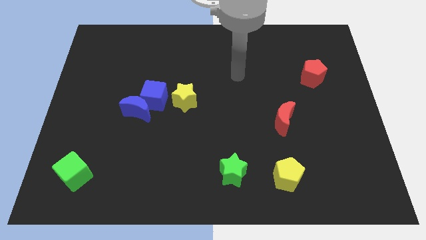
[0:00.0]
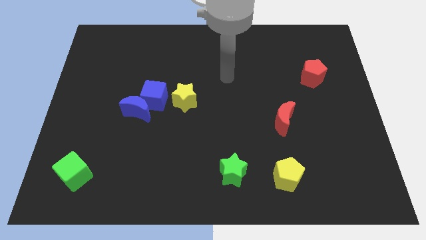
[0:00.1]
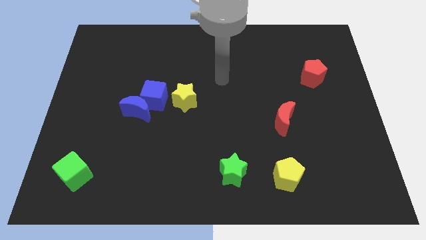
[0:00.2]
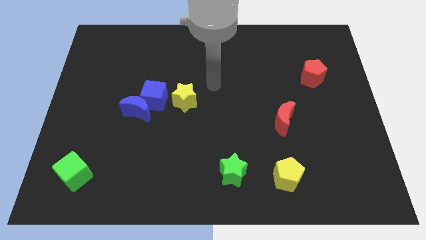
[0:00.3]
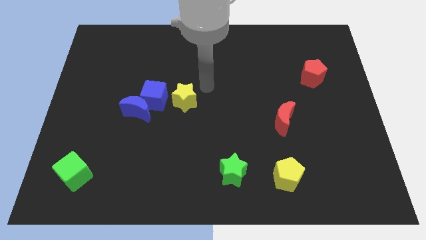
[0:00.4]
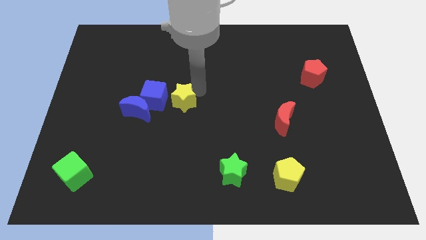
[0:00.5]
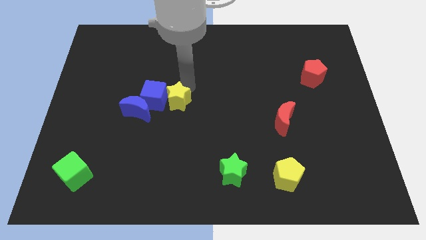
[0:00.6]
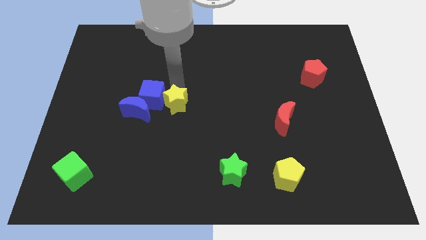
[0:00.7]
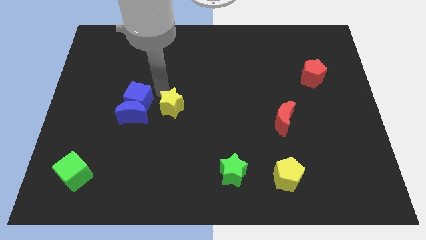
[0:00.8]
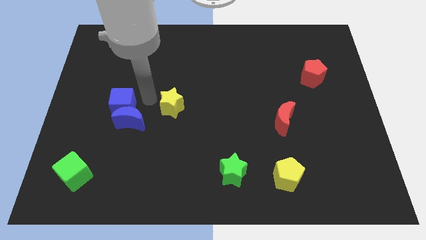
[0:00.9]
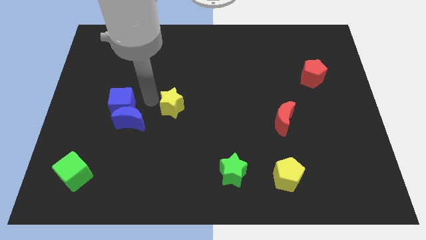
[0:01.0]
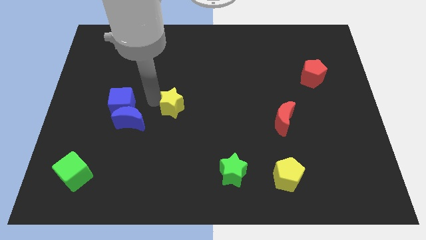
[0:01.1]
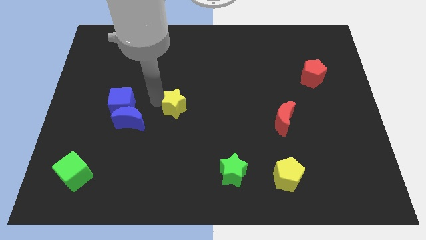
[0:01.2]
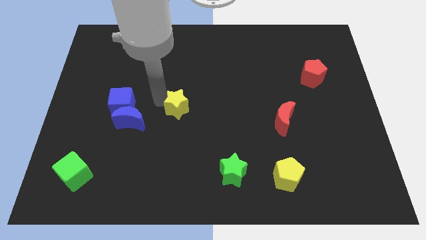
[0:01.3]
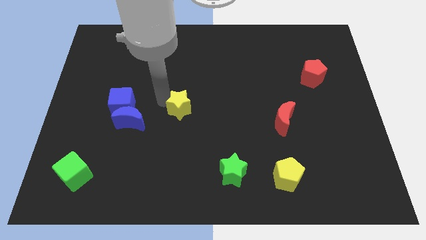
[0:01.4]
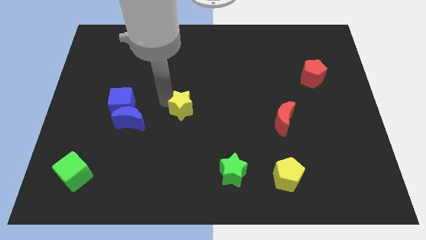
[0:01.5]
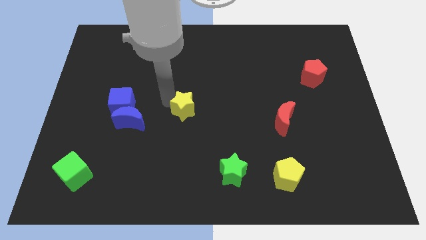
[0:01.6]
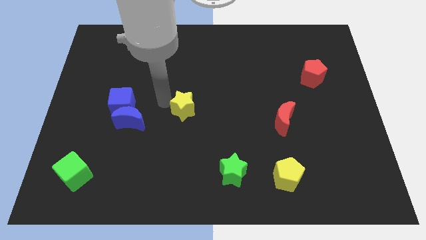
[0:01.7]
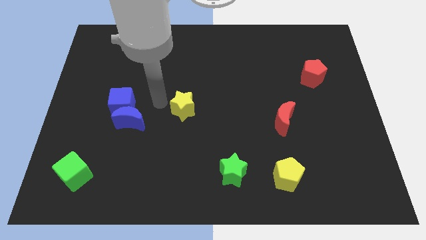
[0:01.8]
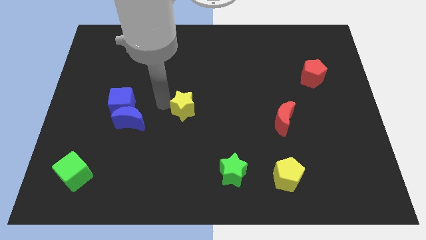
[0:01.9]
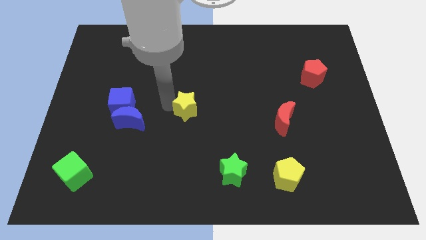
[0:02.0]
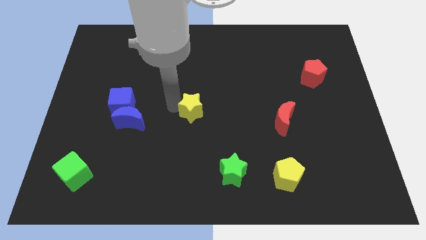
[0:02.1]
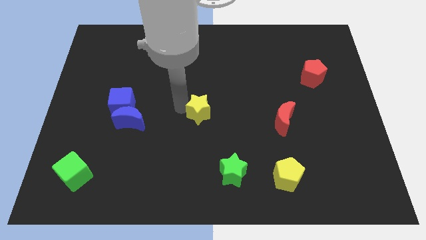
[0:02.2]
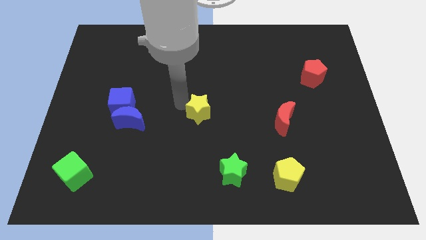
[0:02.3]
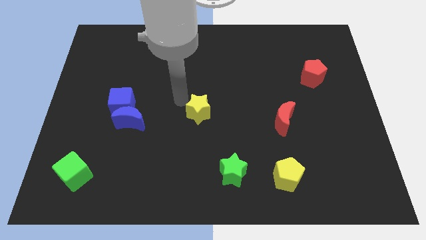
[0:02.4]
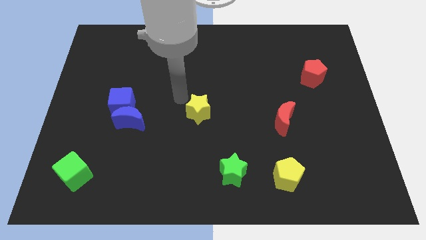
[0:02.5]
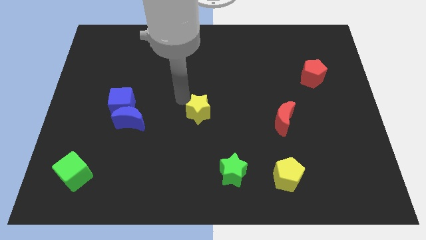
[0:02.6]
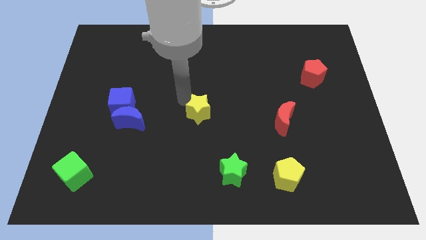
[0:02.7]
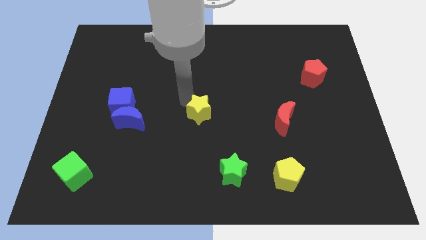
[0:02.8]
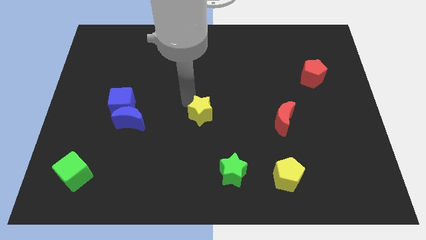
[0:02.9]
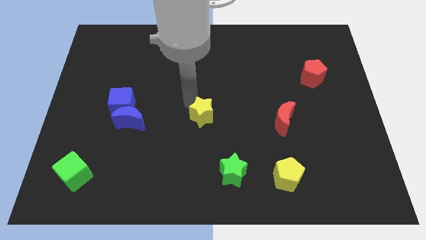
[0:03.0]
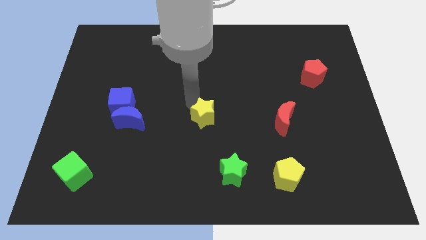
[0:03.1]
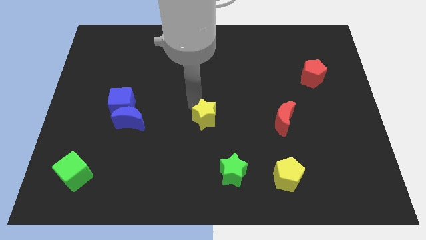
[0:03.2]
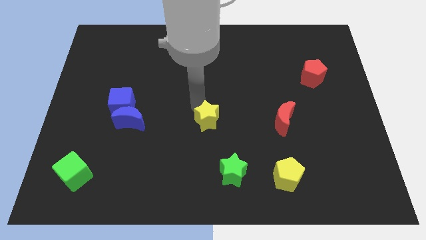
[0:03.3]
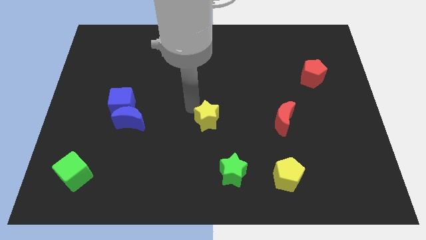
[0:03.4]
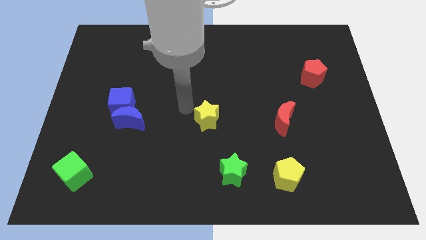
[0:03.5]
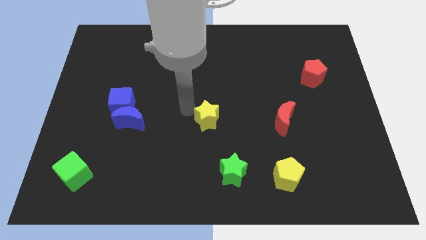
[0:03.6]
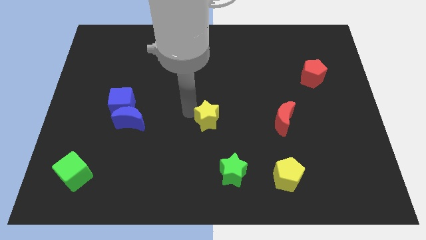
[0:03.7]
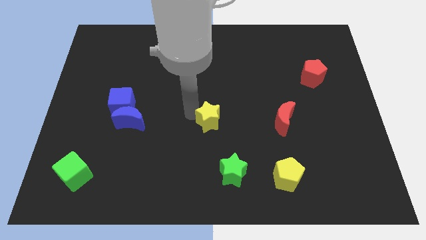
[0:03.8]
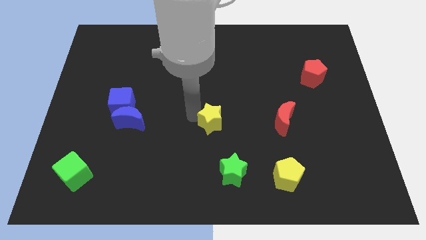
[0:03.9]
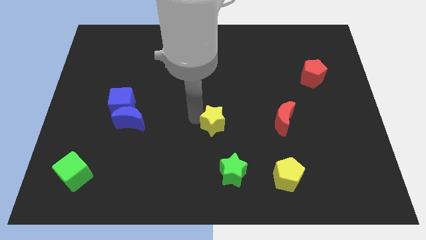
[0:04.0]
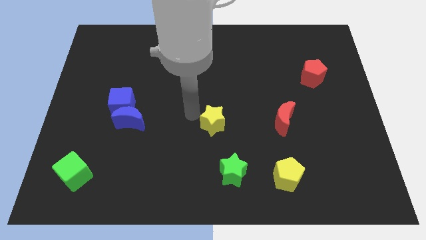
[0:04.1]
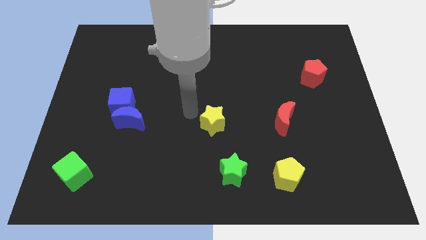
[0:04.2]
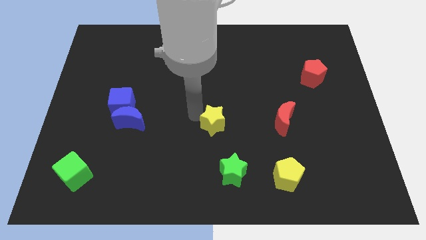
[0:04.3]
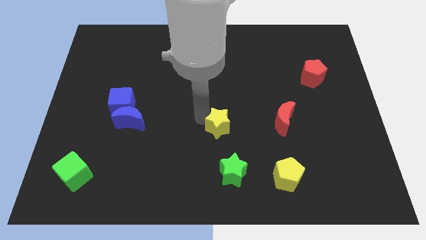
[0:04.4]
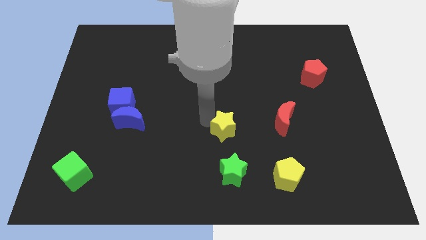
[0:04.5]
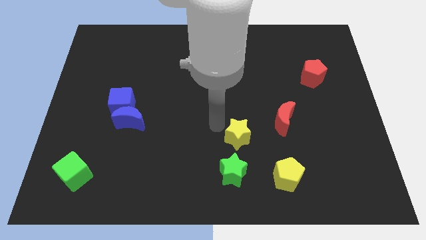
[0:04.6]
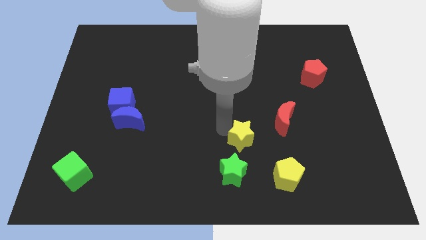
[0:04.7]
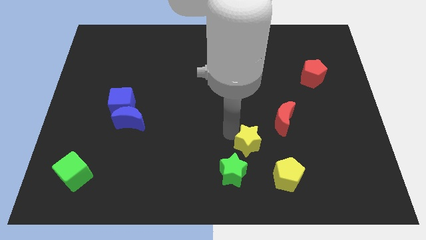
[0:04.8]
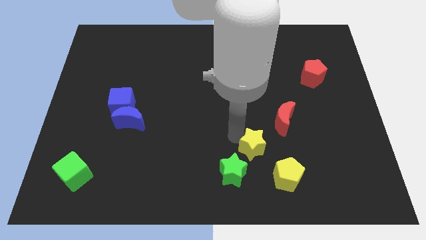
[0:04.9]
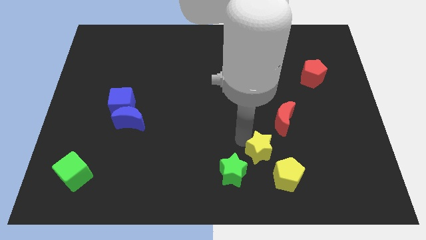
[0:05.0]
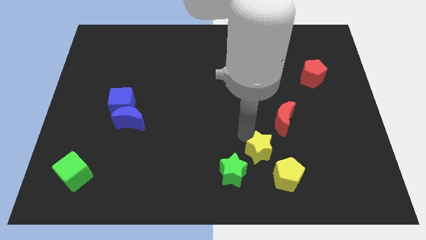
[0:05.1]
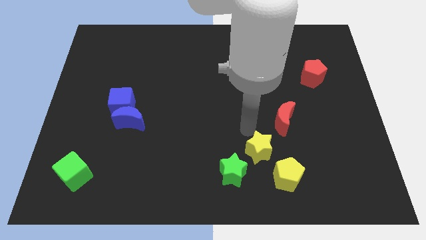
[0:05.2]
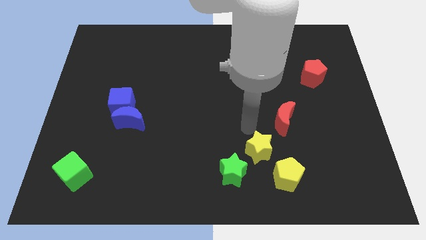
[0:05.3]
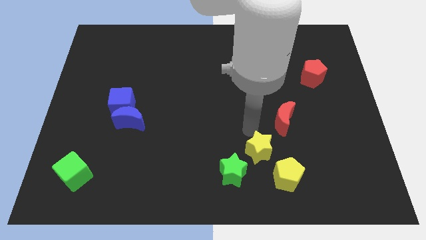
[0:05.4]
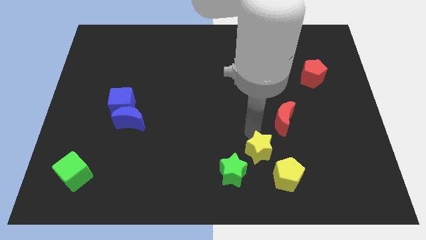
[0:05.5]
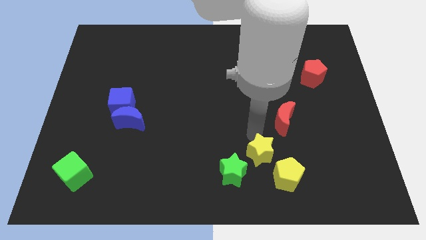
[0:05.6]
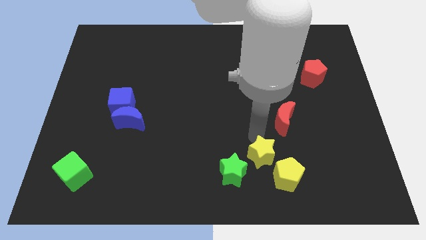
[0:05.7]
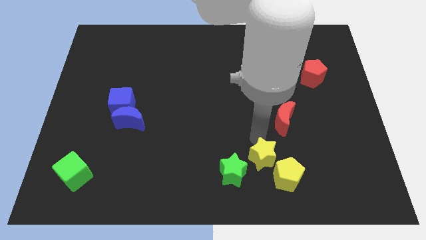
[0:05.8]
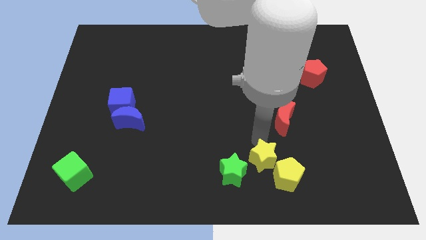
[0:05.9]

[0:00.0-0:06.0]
slide the yellow star close to the yellow pentagon

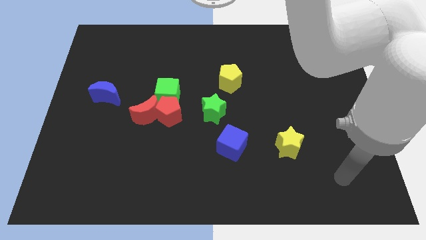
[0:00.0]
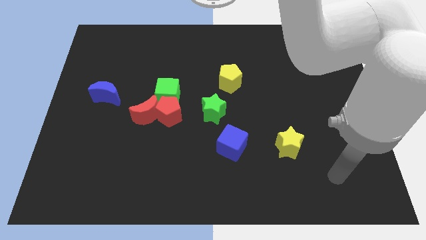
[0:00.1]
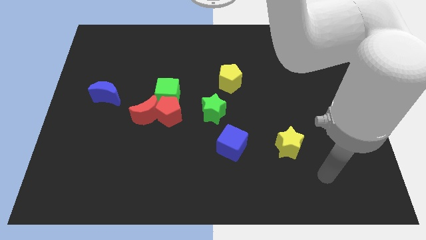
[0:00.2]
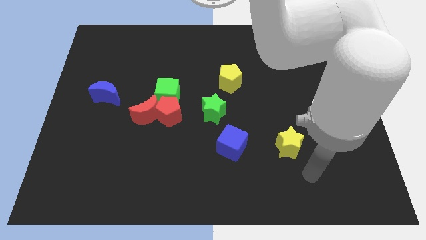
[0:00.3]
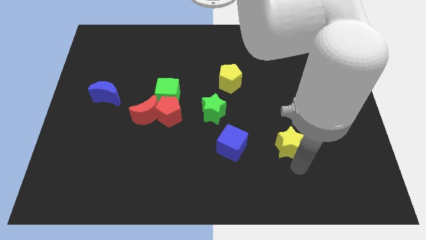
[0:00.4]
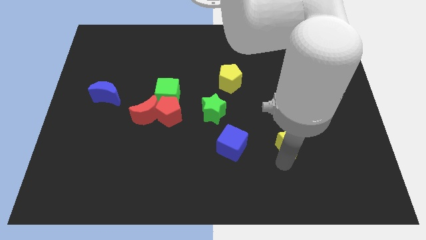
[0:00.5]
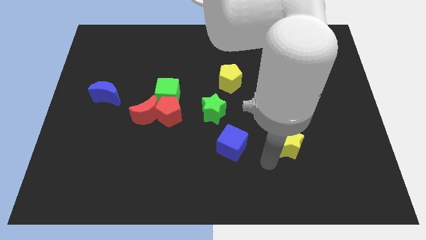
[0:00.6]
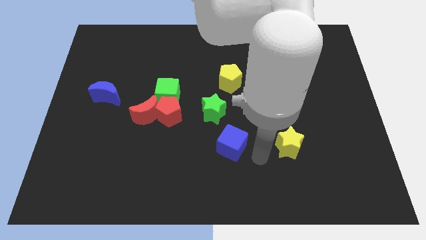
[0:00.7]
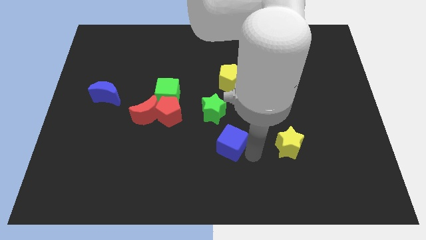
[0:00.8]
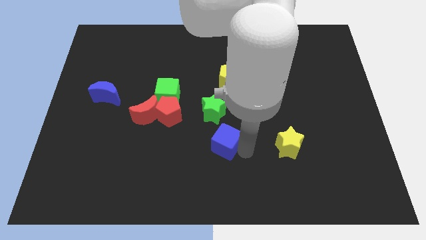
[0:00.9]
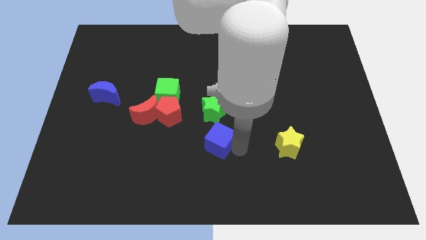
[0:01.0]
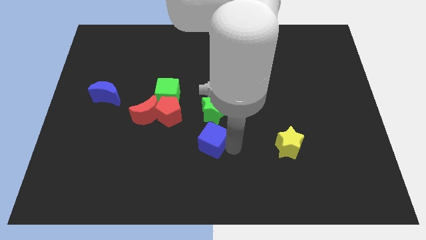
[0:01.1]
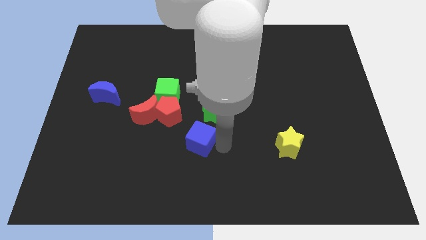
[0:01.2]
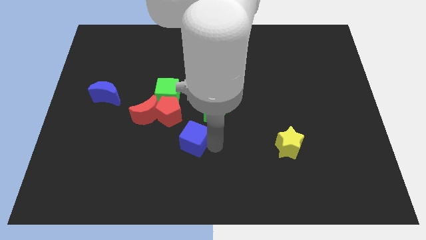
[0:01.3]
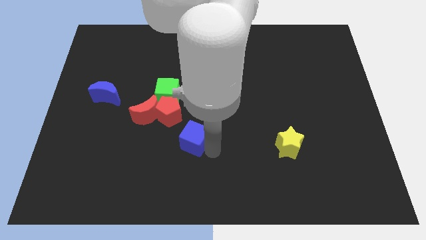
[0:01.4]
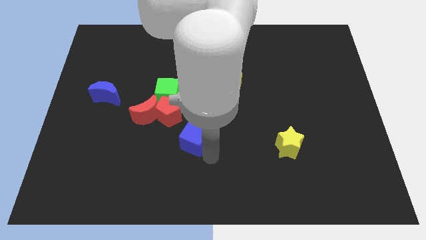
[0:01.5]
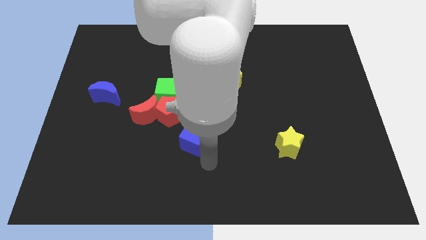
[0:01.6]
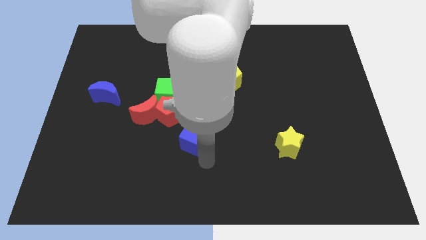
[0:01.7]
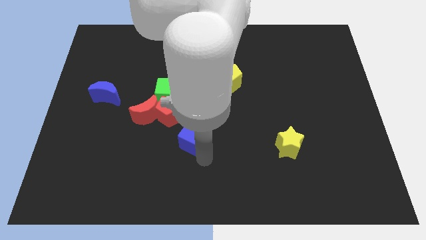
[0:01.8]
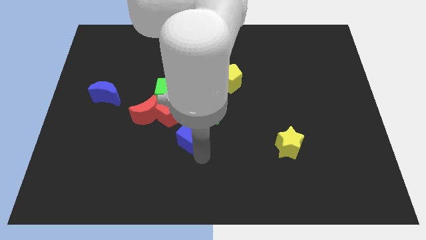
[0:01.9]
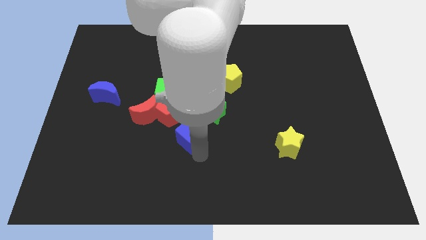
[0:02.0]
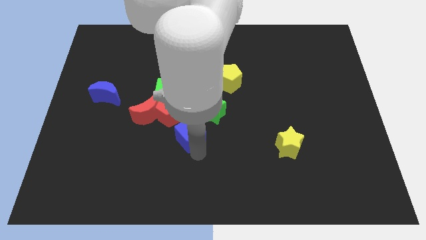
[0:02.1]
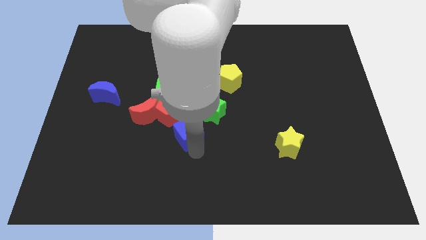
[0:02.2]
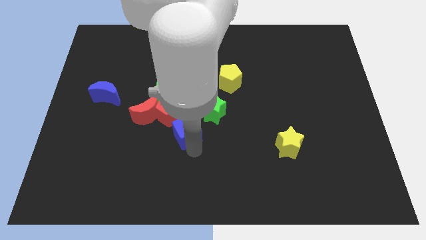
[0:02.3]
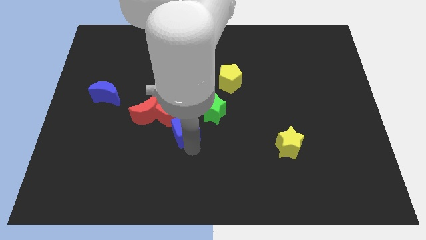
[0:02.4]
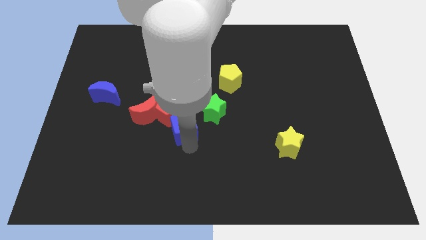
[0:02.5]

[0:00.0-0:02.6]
put the blue cube to the red pentagon
